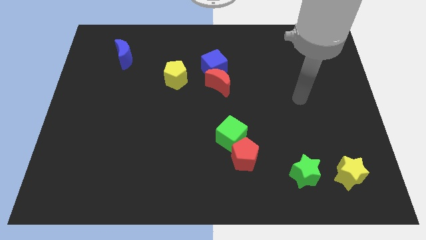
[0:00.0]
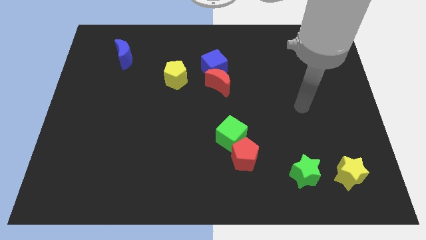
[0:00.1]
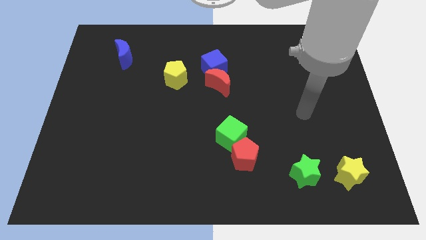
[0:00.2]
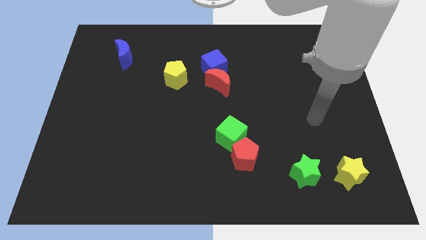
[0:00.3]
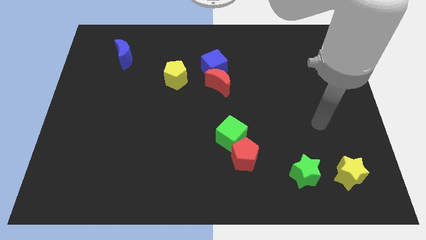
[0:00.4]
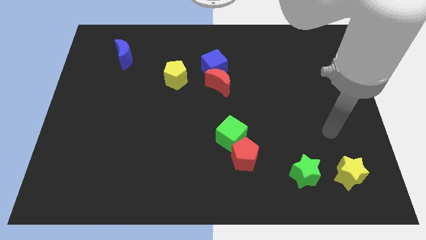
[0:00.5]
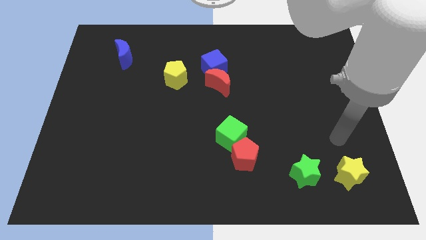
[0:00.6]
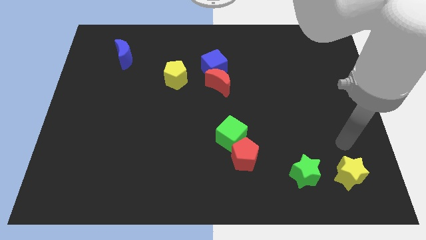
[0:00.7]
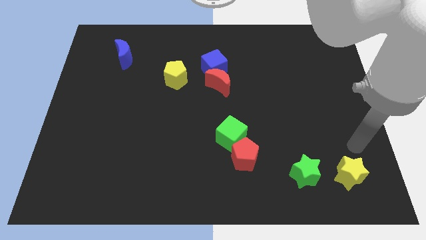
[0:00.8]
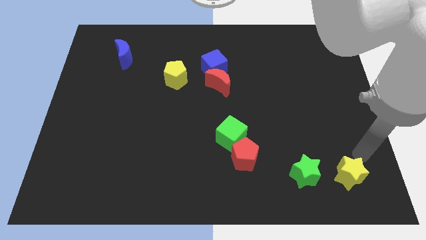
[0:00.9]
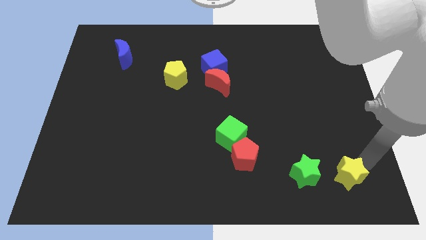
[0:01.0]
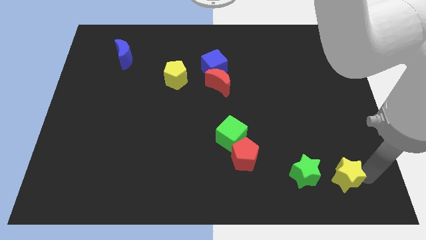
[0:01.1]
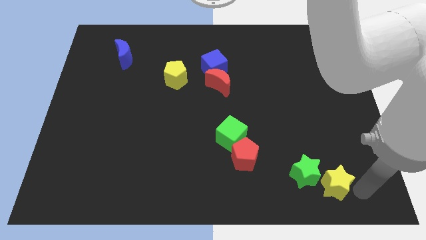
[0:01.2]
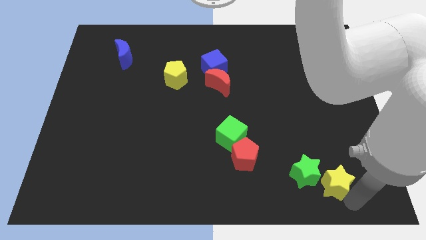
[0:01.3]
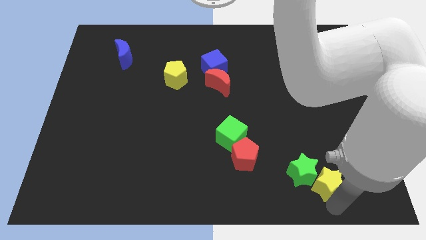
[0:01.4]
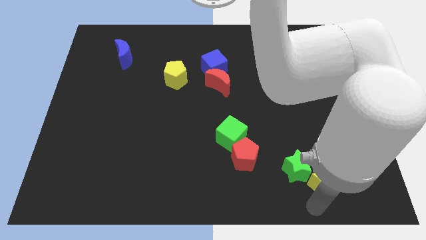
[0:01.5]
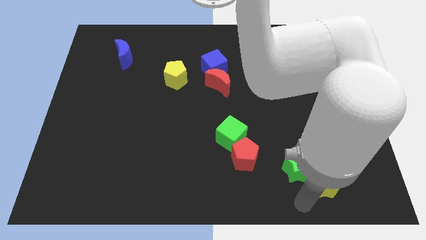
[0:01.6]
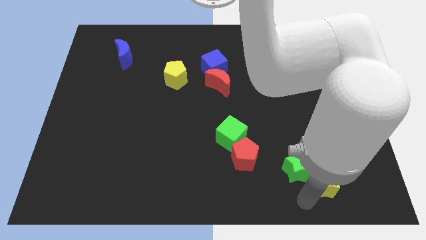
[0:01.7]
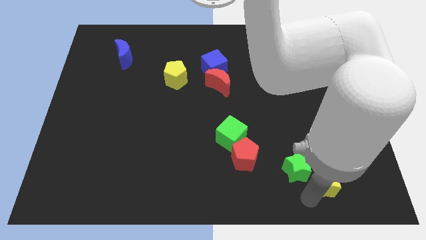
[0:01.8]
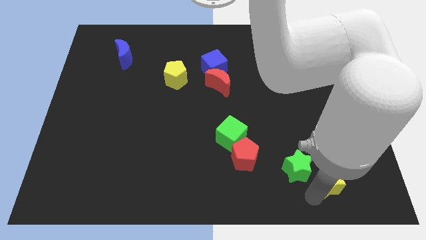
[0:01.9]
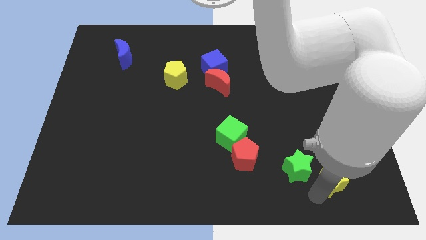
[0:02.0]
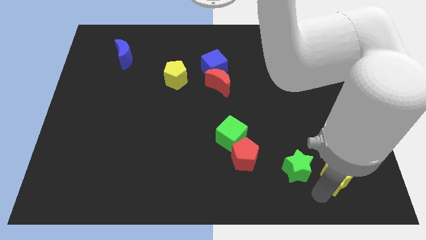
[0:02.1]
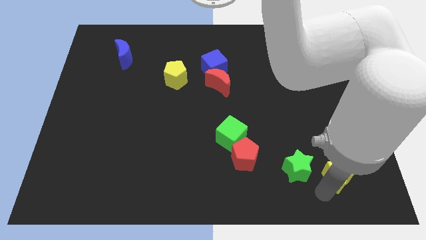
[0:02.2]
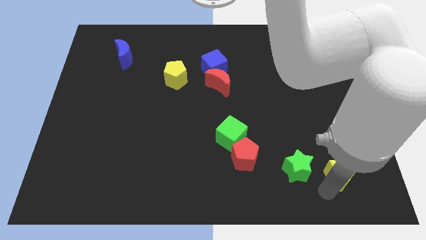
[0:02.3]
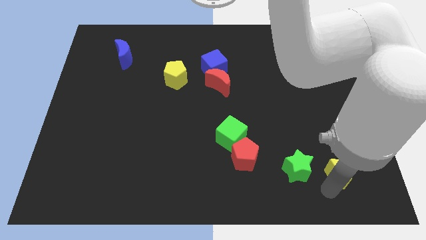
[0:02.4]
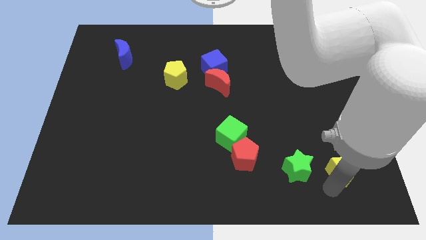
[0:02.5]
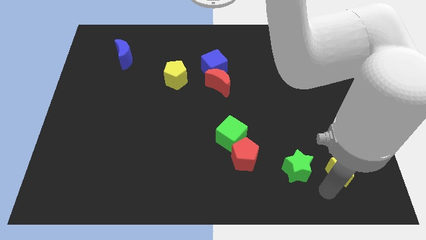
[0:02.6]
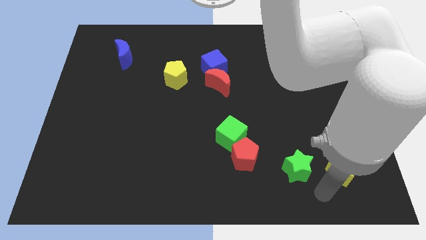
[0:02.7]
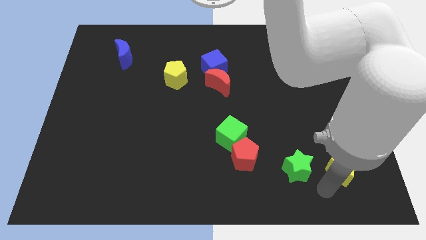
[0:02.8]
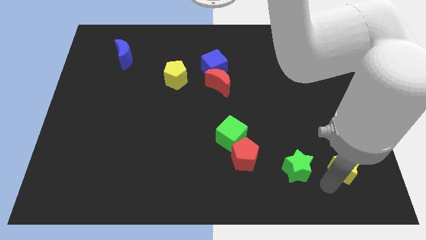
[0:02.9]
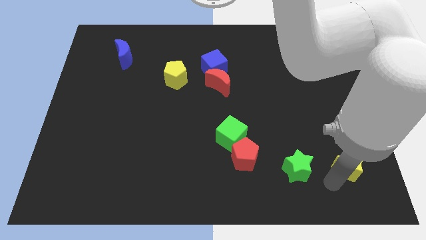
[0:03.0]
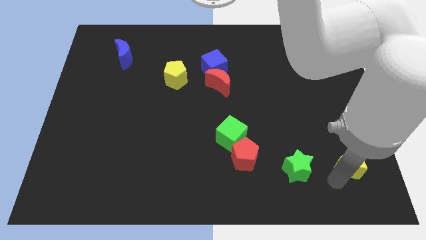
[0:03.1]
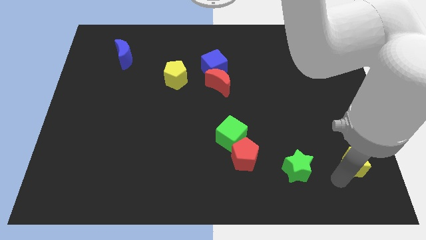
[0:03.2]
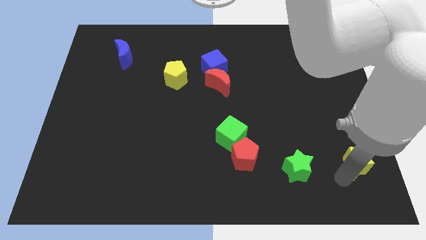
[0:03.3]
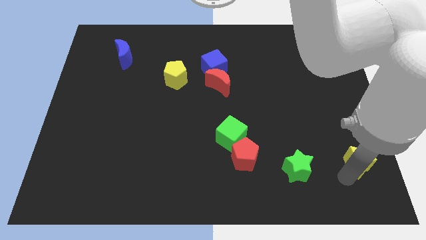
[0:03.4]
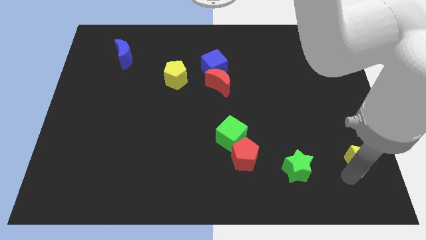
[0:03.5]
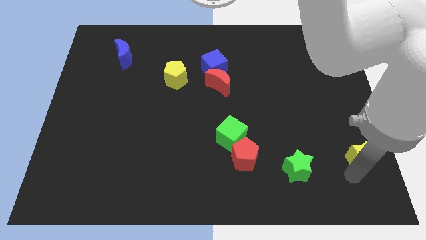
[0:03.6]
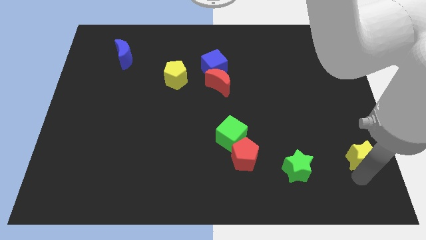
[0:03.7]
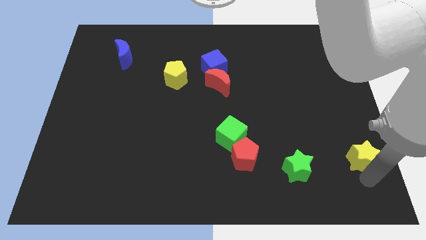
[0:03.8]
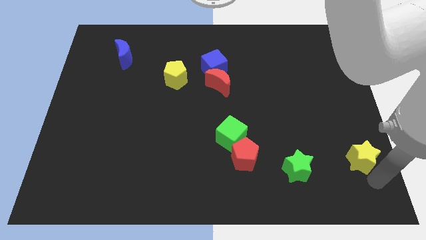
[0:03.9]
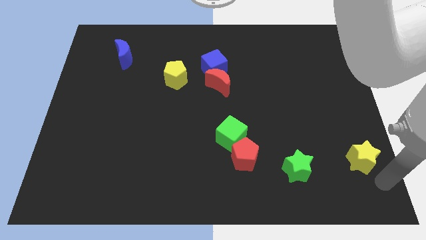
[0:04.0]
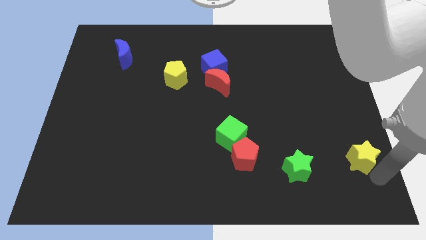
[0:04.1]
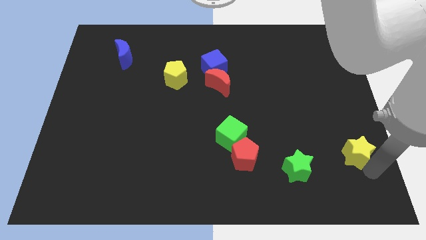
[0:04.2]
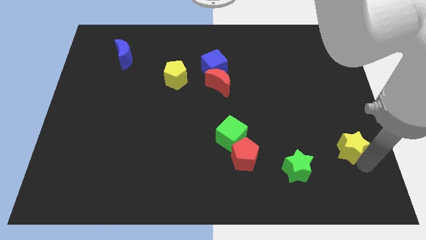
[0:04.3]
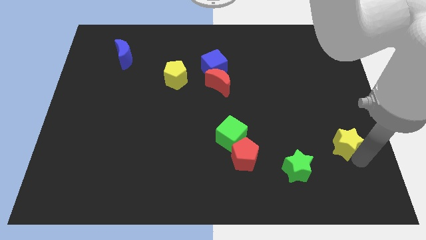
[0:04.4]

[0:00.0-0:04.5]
slide the yellow star slightly upwards

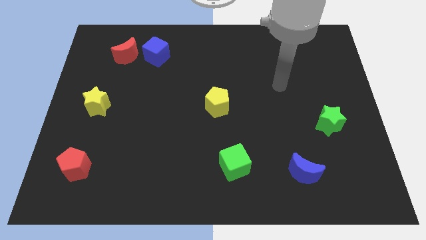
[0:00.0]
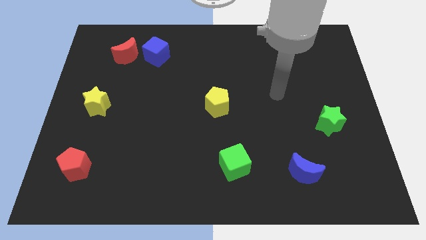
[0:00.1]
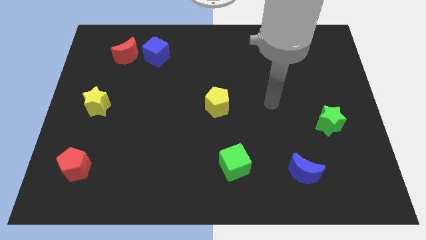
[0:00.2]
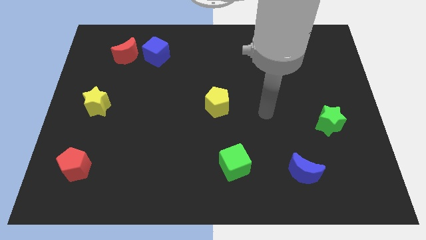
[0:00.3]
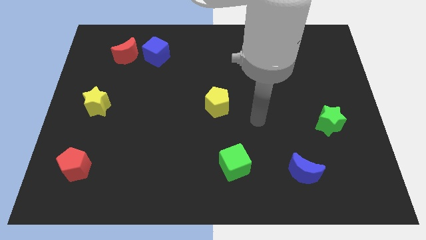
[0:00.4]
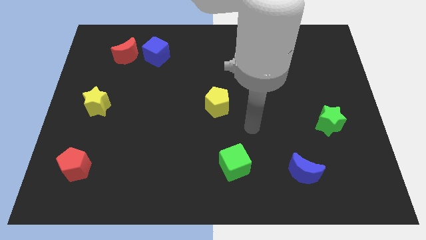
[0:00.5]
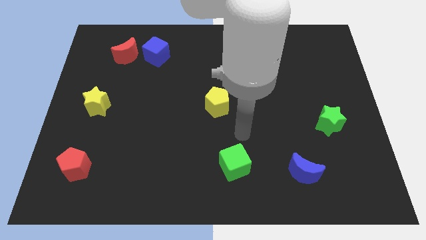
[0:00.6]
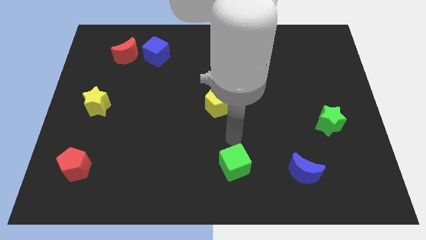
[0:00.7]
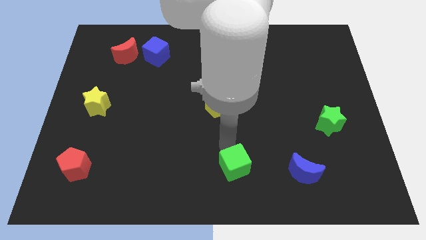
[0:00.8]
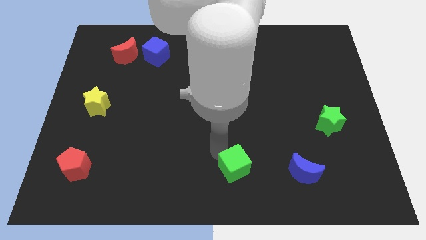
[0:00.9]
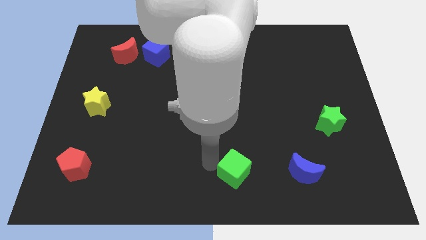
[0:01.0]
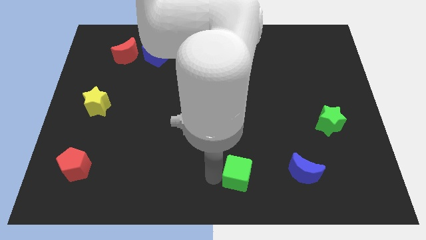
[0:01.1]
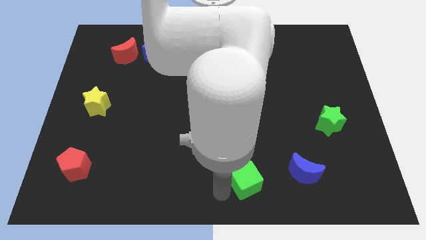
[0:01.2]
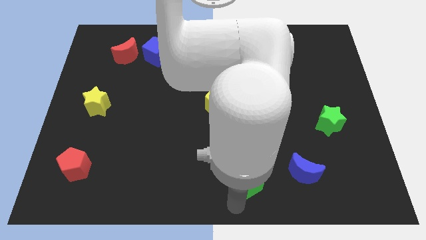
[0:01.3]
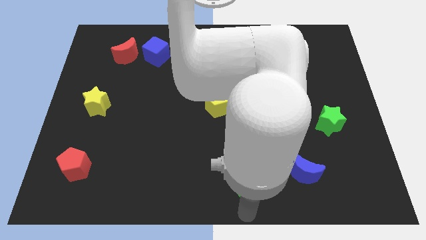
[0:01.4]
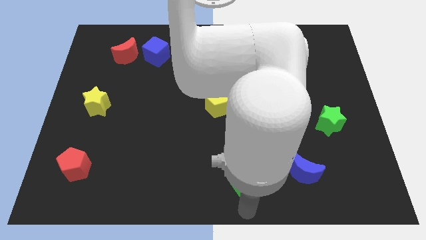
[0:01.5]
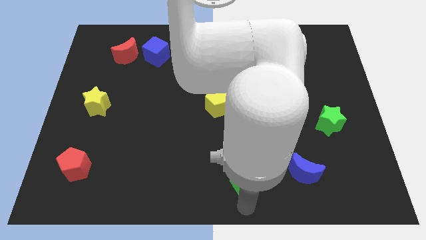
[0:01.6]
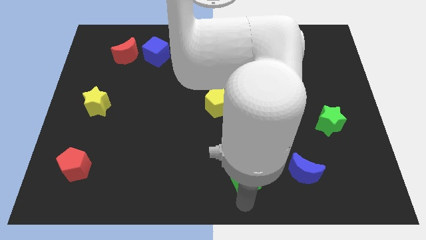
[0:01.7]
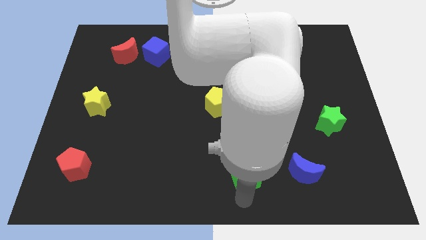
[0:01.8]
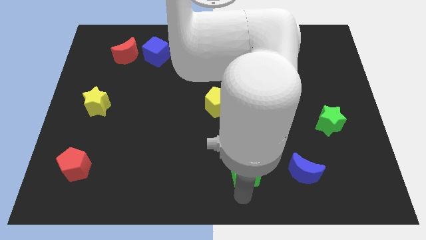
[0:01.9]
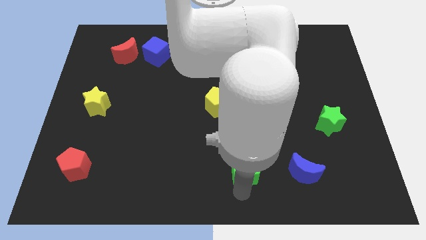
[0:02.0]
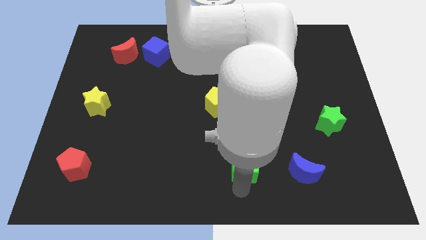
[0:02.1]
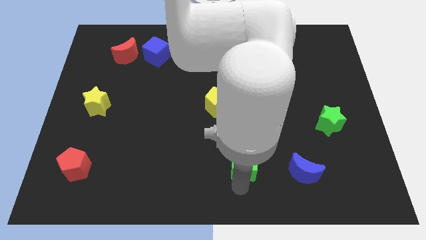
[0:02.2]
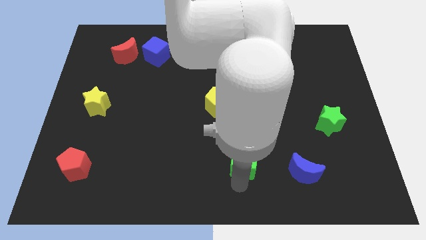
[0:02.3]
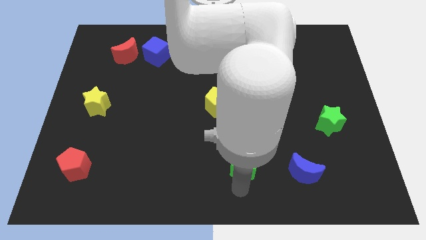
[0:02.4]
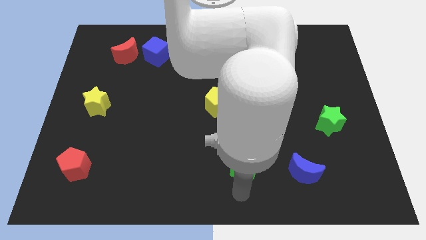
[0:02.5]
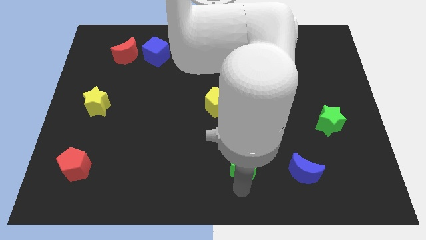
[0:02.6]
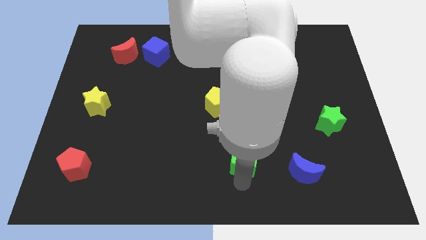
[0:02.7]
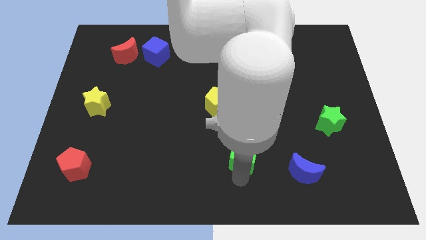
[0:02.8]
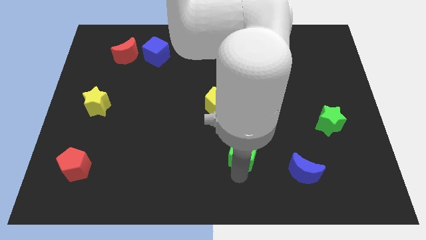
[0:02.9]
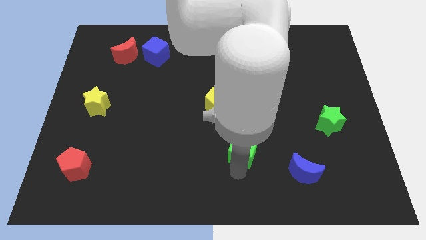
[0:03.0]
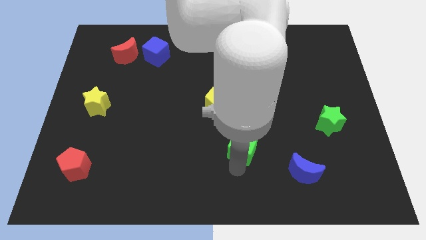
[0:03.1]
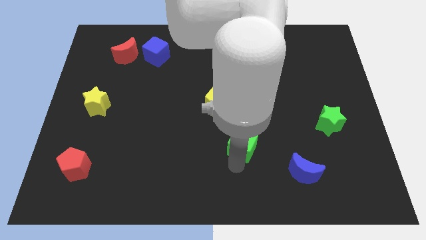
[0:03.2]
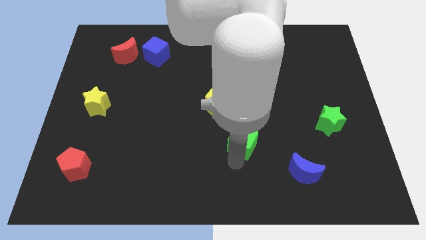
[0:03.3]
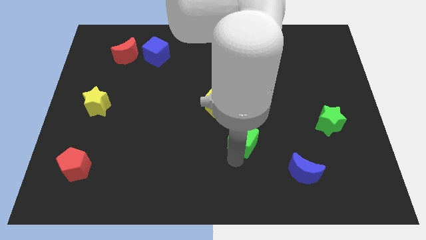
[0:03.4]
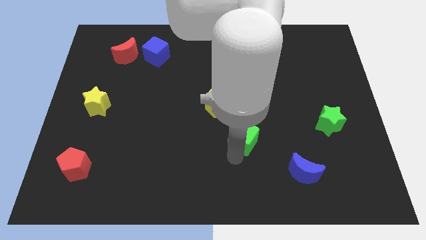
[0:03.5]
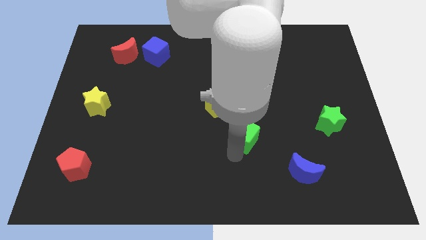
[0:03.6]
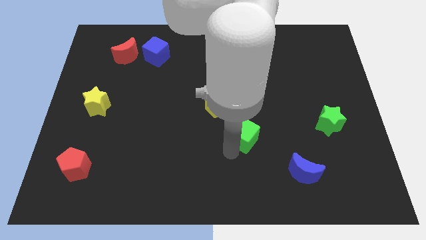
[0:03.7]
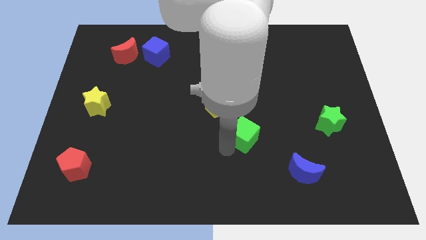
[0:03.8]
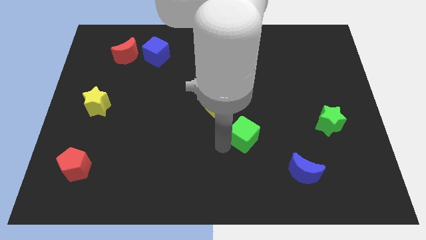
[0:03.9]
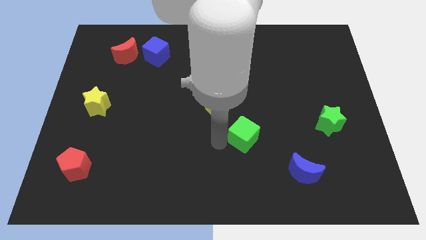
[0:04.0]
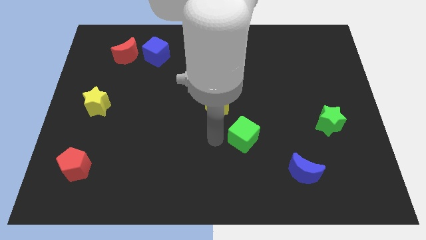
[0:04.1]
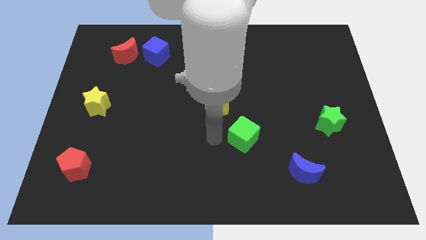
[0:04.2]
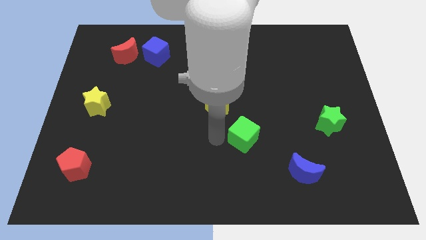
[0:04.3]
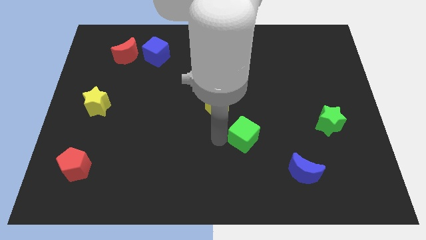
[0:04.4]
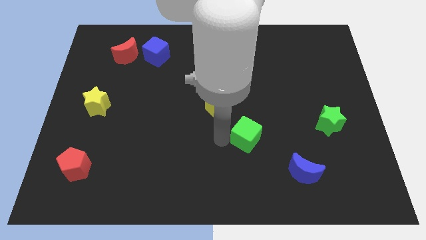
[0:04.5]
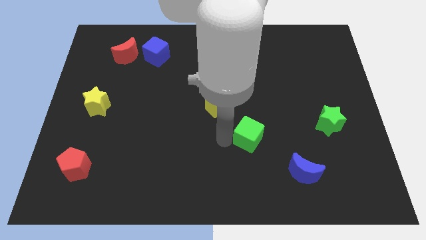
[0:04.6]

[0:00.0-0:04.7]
push the green cube diagonally upwards and right slightly
